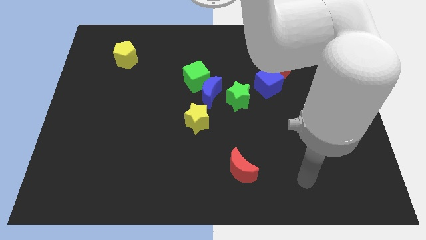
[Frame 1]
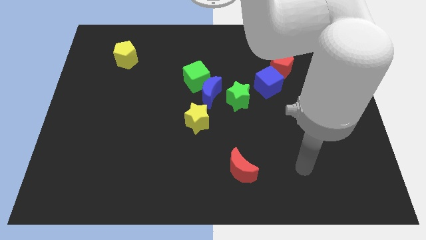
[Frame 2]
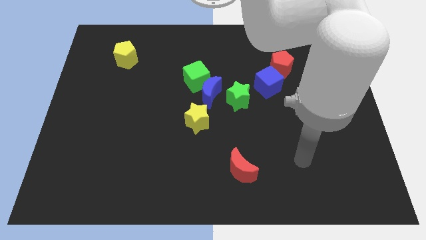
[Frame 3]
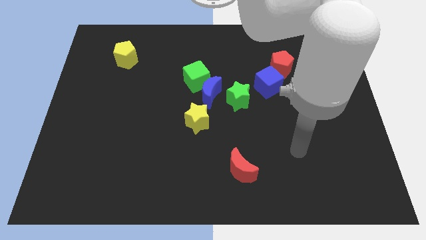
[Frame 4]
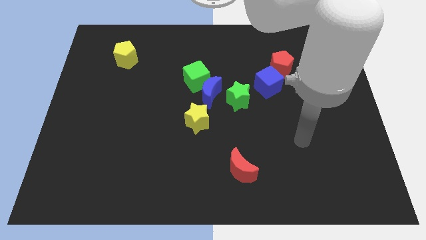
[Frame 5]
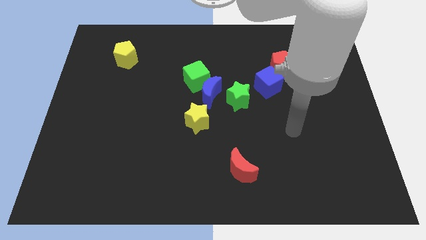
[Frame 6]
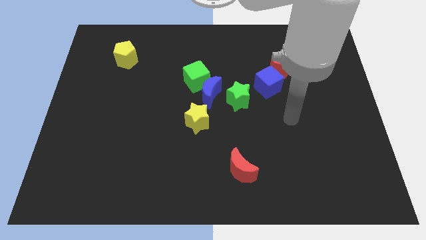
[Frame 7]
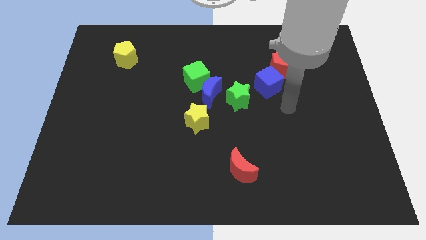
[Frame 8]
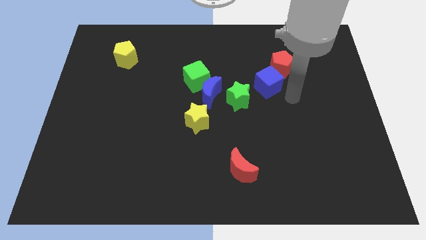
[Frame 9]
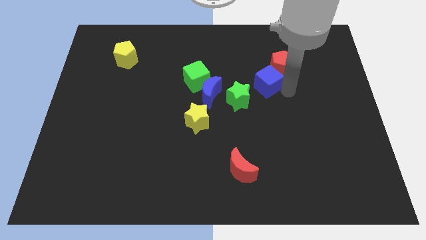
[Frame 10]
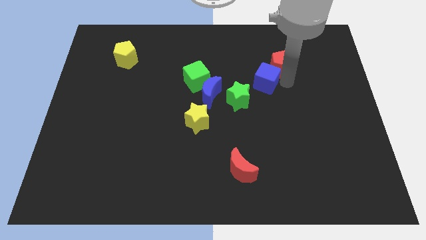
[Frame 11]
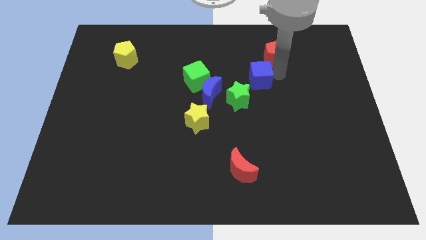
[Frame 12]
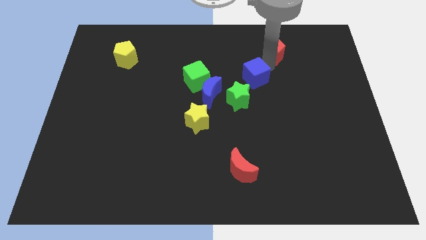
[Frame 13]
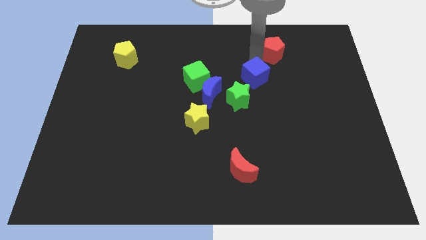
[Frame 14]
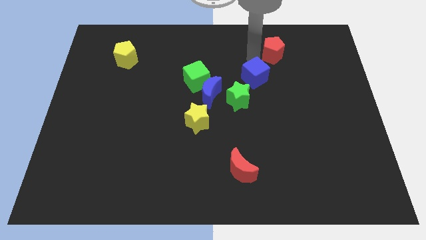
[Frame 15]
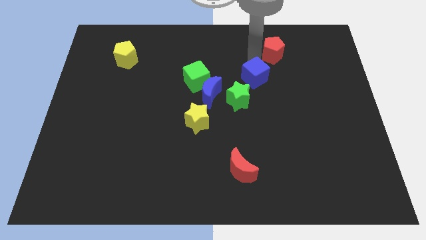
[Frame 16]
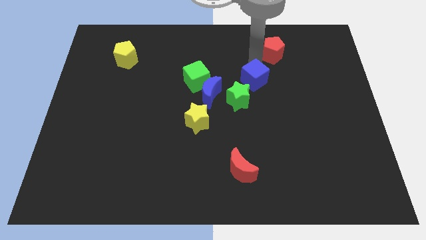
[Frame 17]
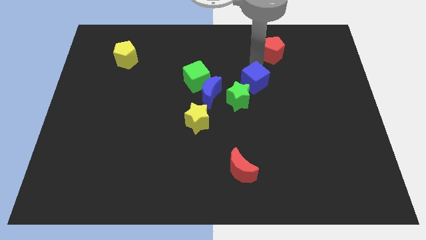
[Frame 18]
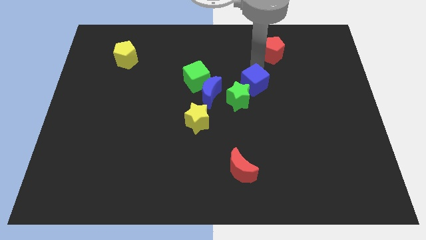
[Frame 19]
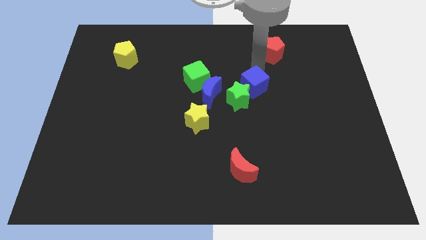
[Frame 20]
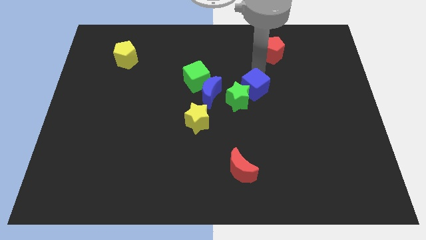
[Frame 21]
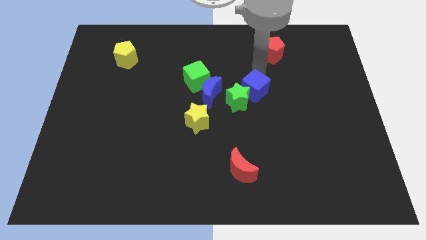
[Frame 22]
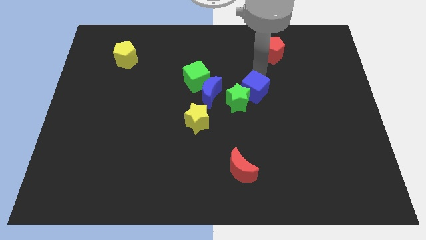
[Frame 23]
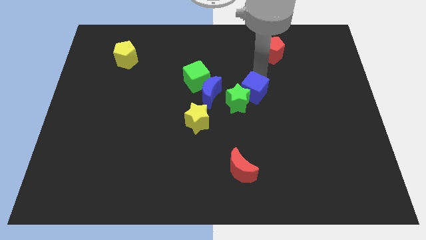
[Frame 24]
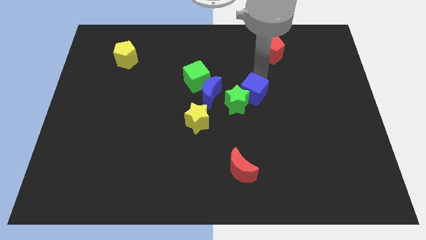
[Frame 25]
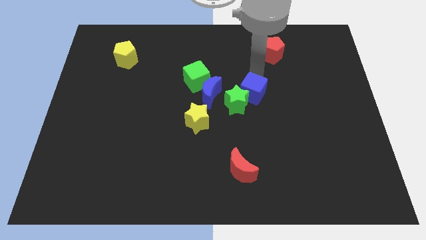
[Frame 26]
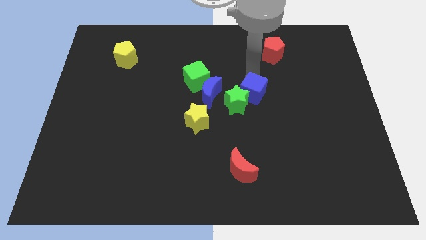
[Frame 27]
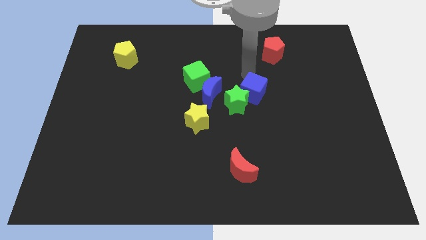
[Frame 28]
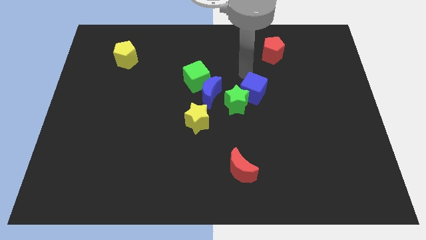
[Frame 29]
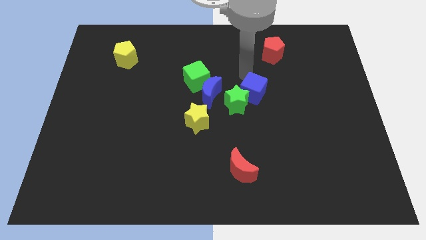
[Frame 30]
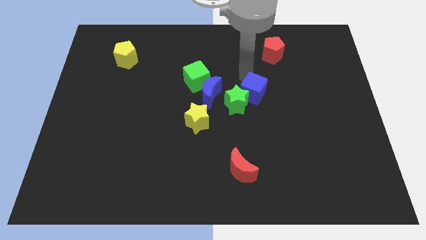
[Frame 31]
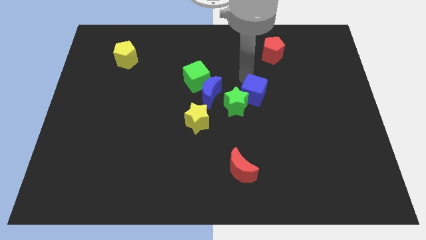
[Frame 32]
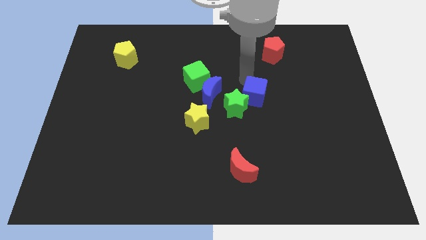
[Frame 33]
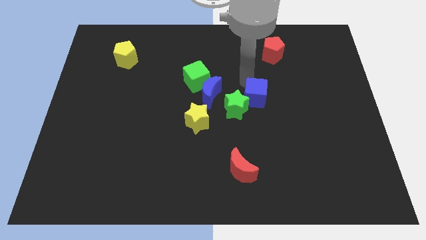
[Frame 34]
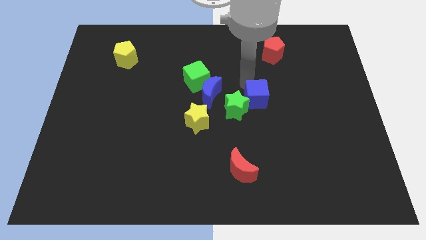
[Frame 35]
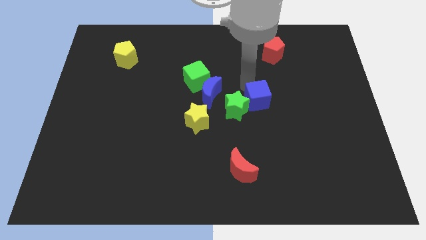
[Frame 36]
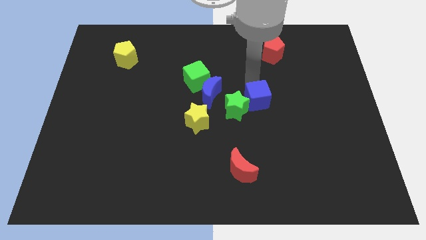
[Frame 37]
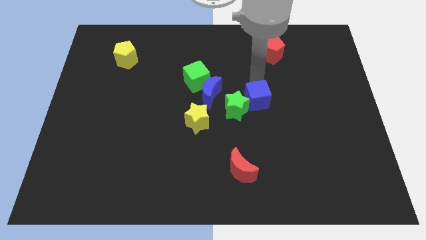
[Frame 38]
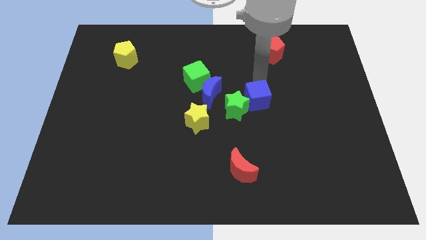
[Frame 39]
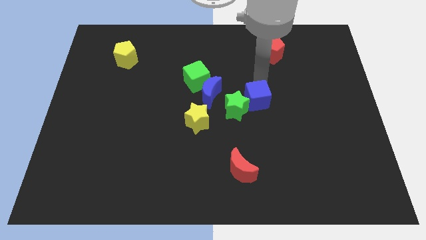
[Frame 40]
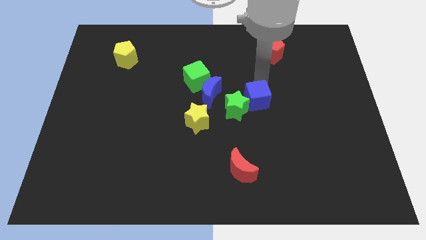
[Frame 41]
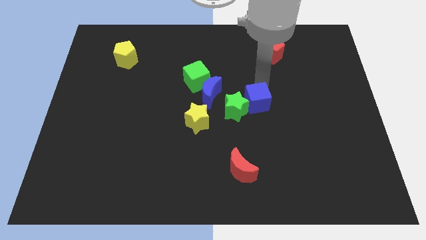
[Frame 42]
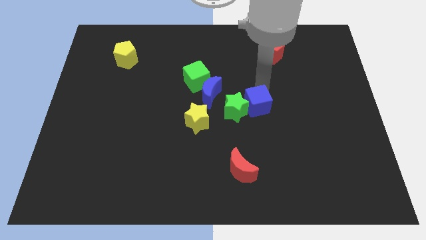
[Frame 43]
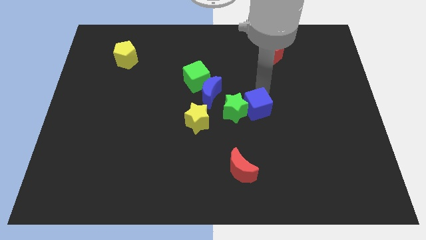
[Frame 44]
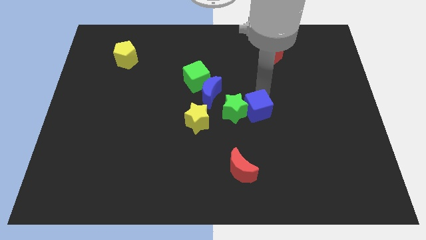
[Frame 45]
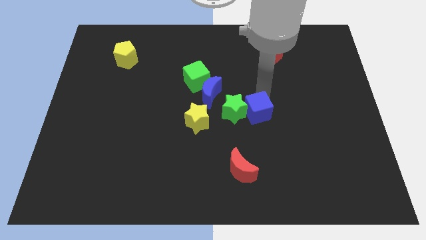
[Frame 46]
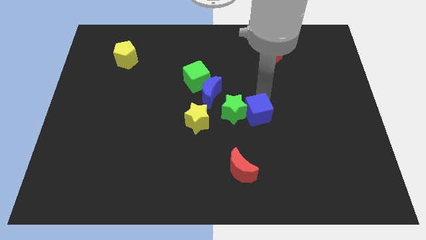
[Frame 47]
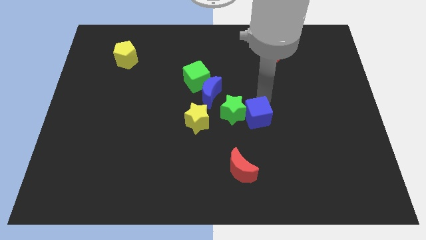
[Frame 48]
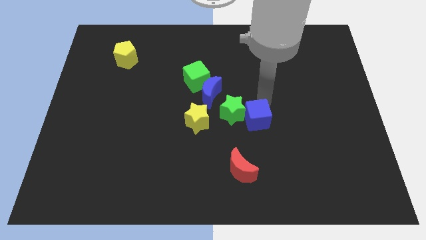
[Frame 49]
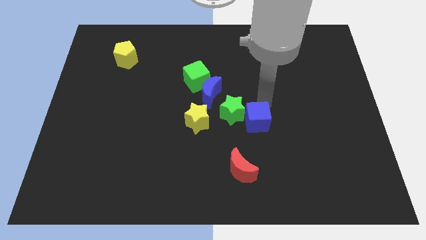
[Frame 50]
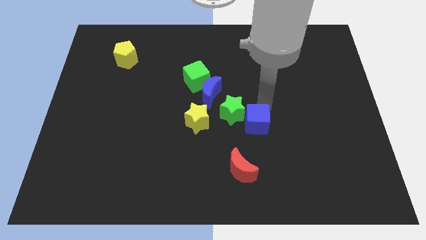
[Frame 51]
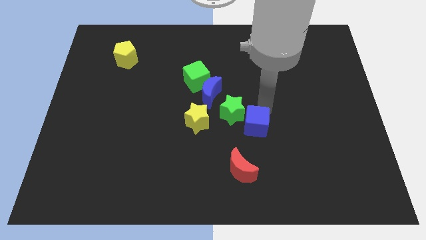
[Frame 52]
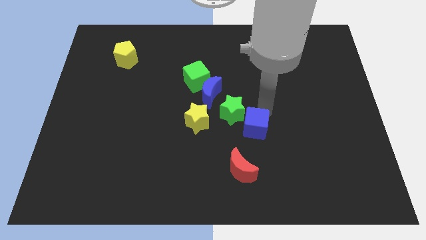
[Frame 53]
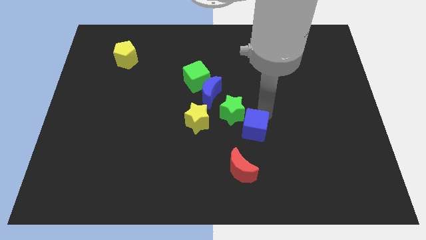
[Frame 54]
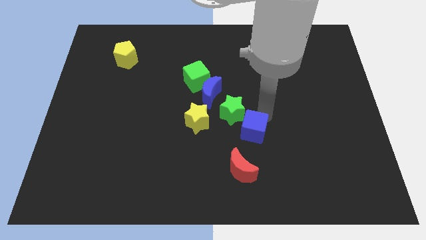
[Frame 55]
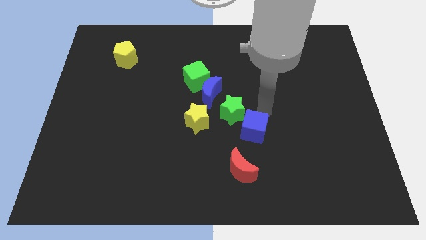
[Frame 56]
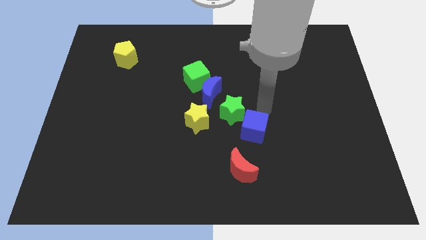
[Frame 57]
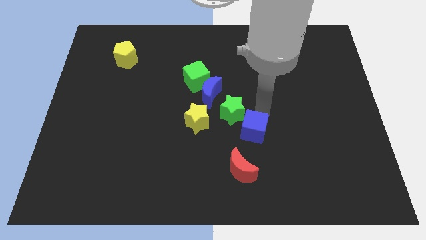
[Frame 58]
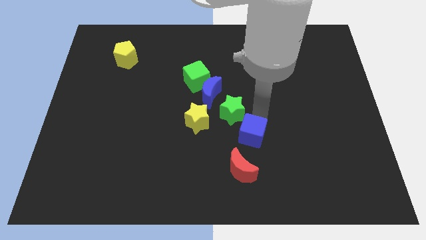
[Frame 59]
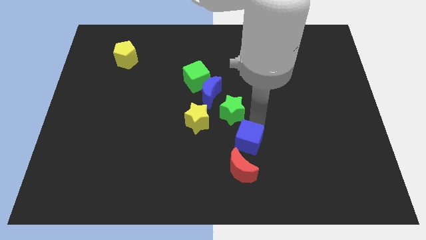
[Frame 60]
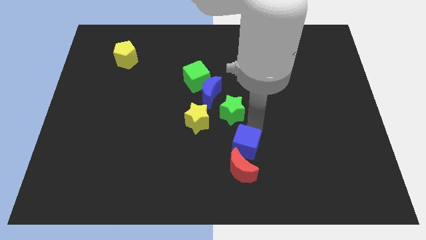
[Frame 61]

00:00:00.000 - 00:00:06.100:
push the blue cube to the red moon

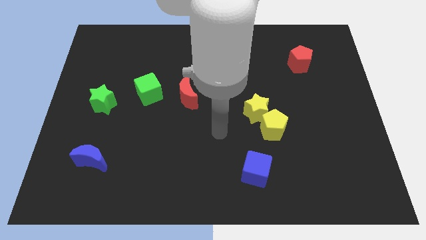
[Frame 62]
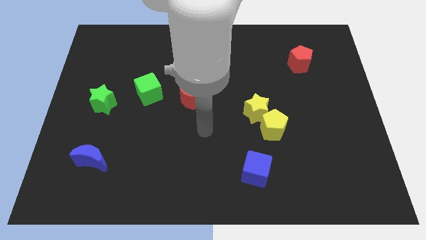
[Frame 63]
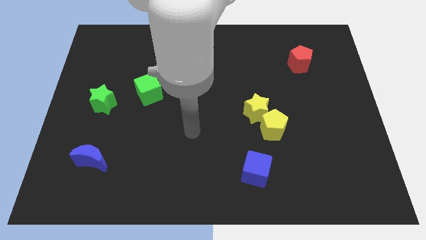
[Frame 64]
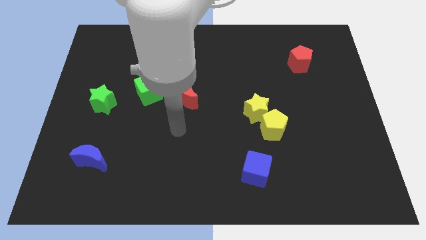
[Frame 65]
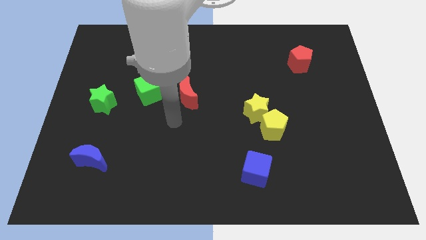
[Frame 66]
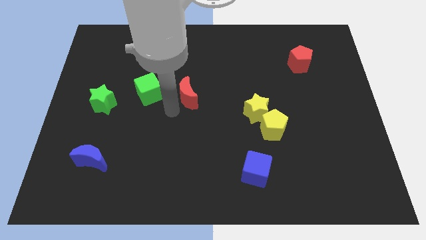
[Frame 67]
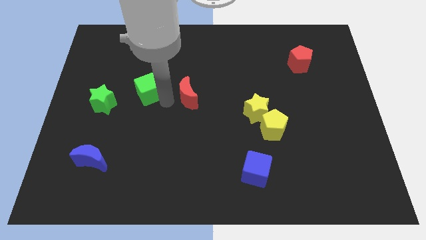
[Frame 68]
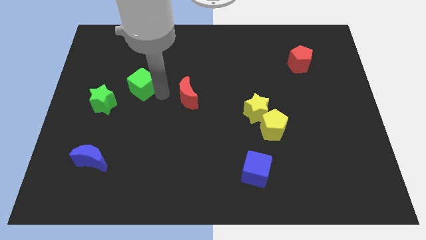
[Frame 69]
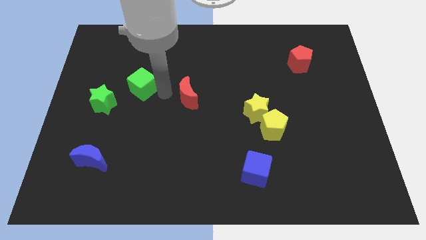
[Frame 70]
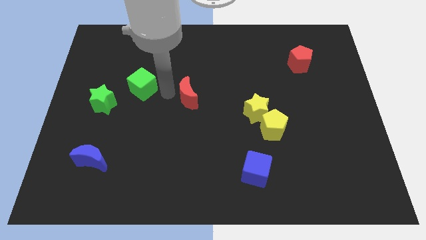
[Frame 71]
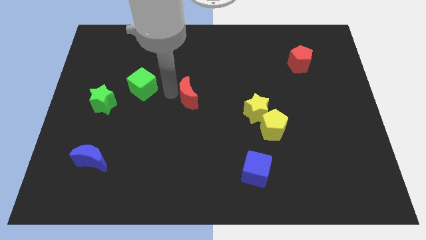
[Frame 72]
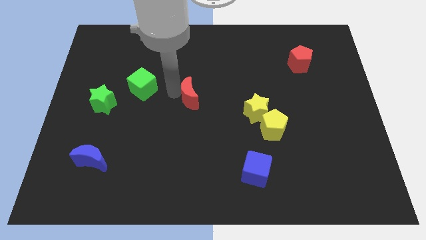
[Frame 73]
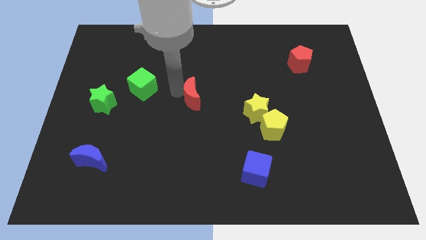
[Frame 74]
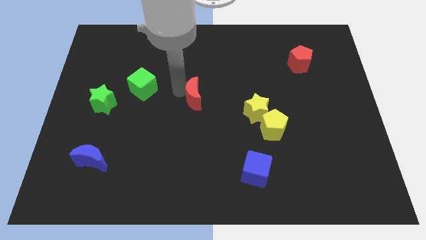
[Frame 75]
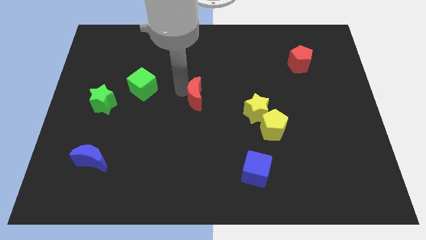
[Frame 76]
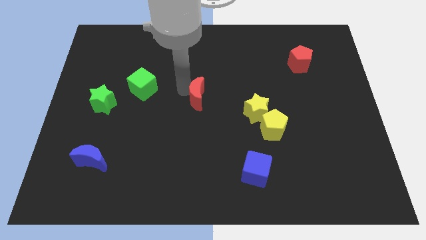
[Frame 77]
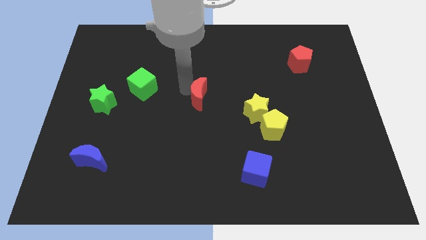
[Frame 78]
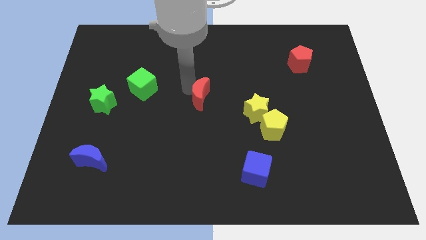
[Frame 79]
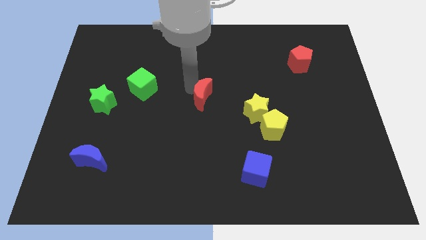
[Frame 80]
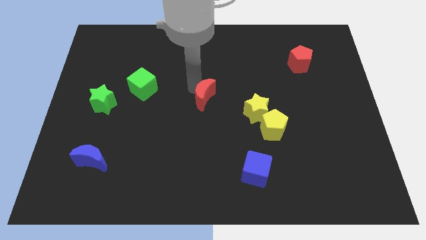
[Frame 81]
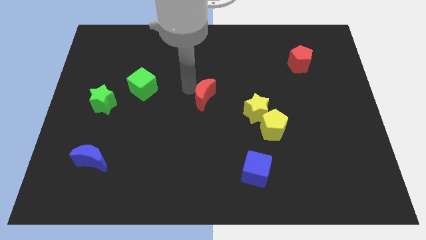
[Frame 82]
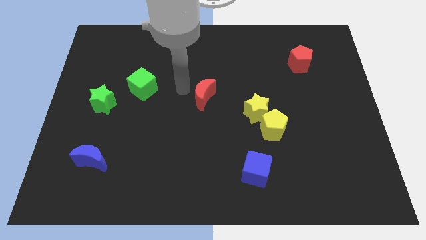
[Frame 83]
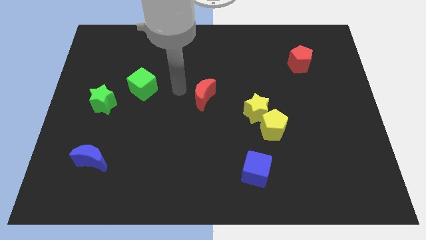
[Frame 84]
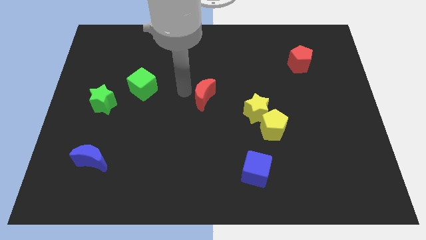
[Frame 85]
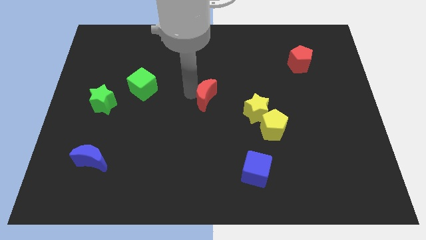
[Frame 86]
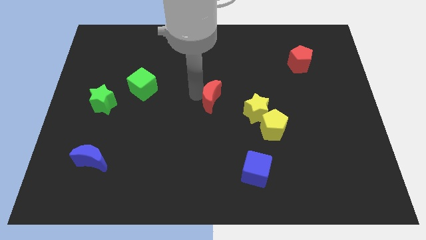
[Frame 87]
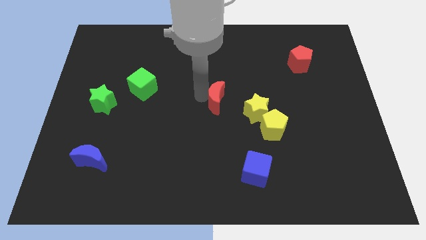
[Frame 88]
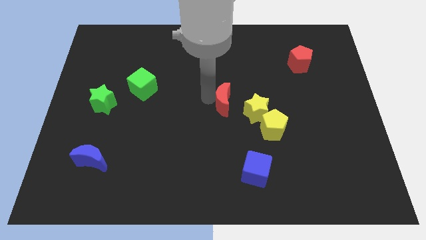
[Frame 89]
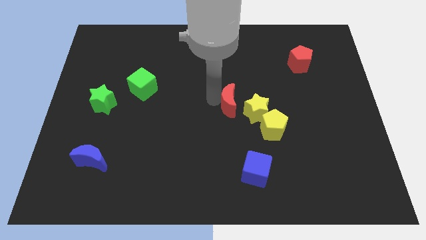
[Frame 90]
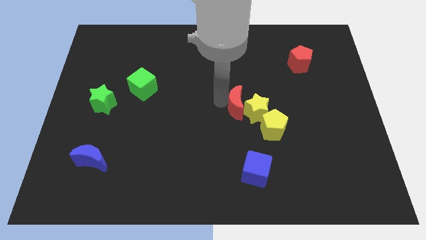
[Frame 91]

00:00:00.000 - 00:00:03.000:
put the red moon to the yellow star
